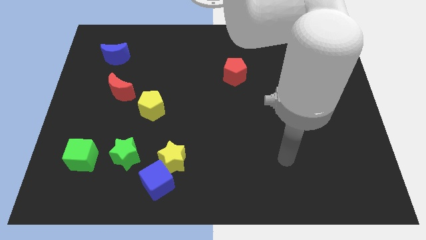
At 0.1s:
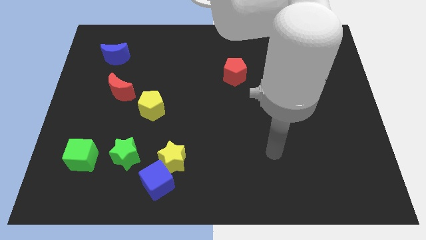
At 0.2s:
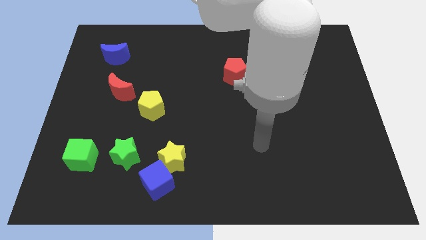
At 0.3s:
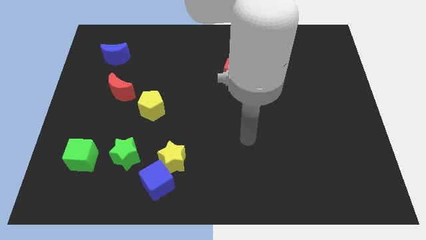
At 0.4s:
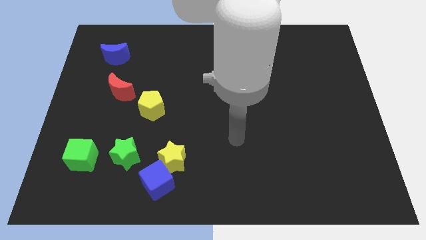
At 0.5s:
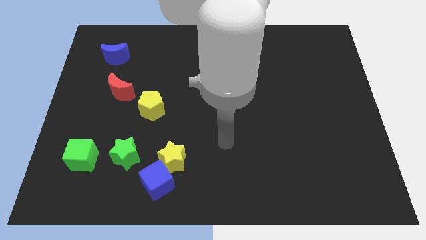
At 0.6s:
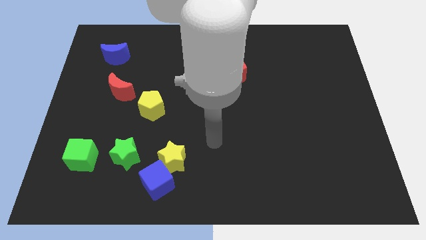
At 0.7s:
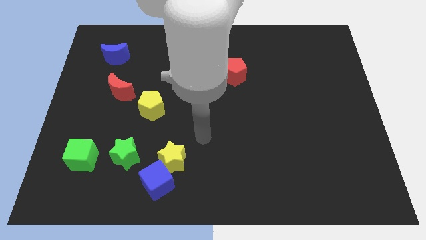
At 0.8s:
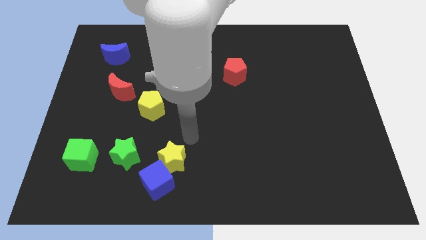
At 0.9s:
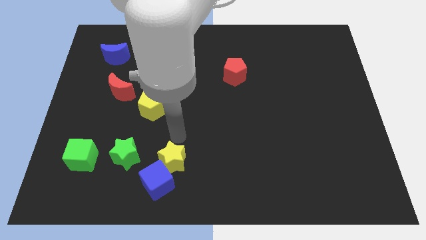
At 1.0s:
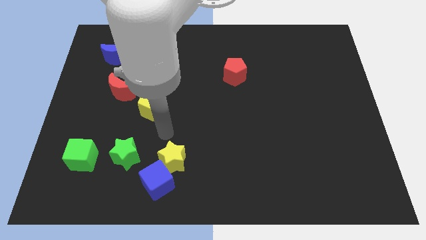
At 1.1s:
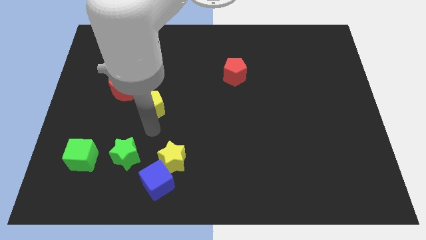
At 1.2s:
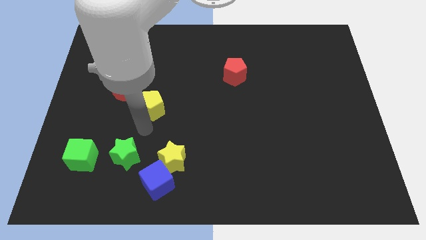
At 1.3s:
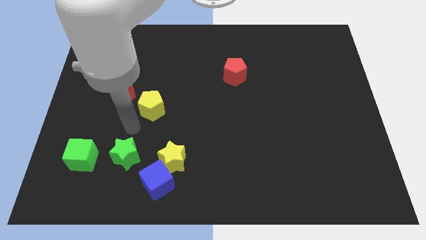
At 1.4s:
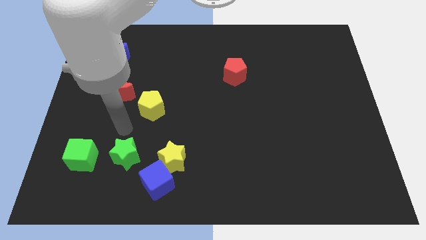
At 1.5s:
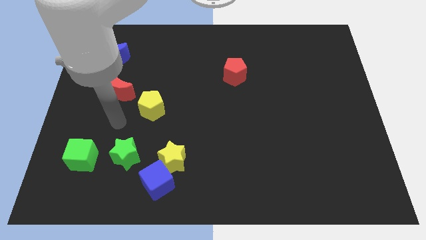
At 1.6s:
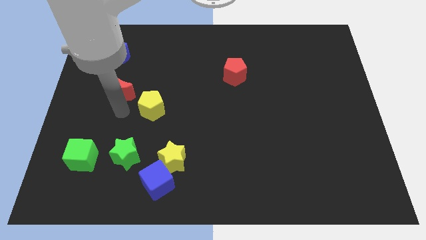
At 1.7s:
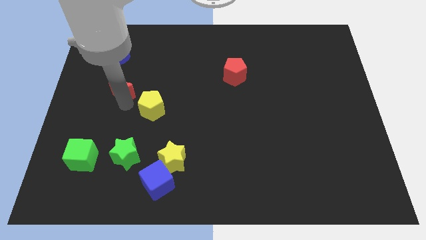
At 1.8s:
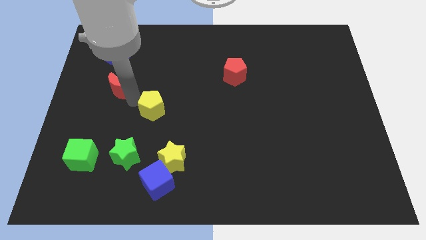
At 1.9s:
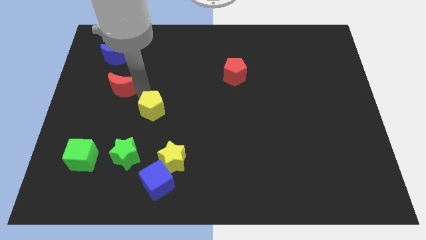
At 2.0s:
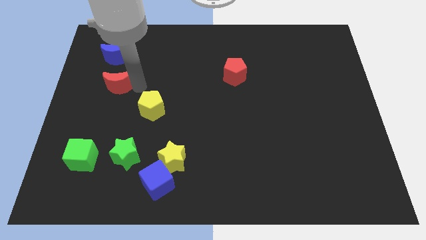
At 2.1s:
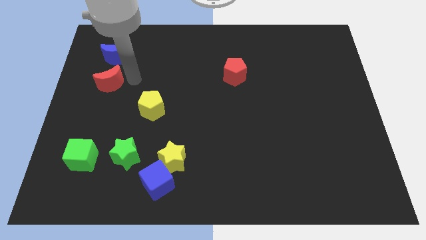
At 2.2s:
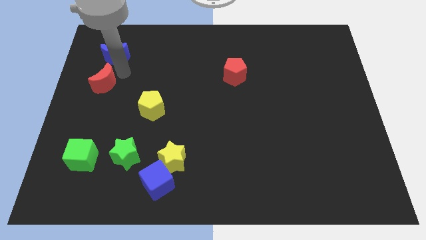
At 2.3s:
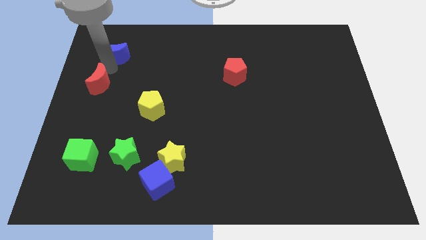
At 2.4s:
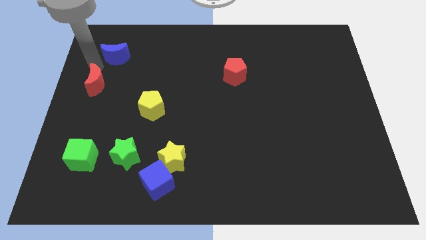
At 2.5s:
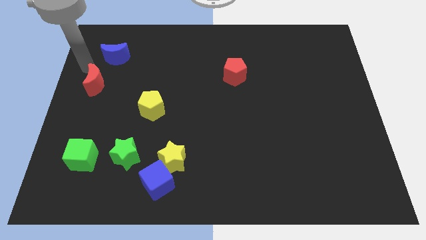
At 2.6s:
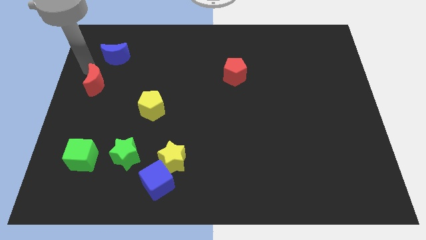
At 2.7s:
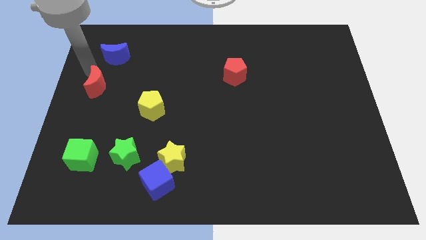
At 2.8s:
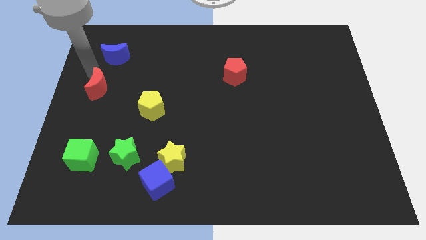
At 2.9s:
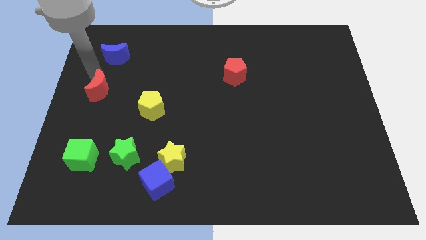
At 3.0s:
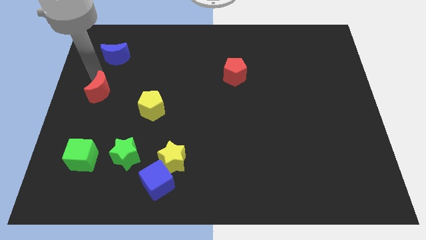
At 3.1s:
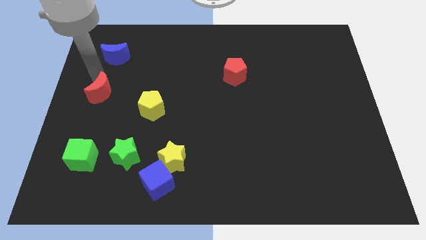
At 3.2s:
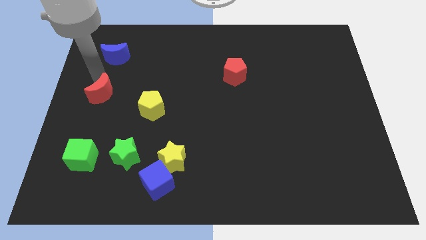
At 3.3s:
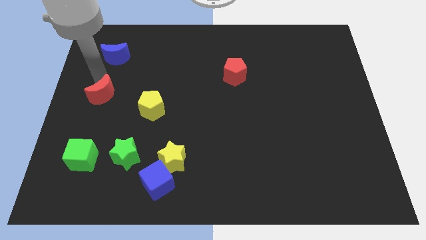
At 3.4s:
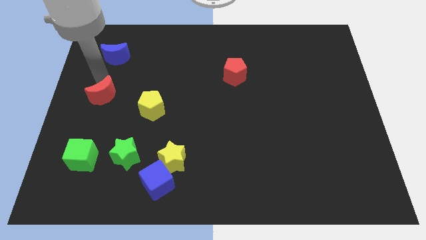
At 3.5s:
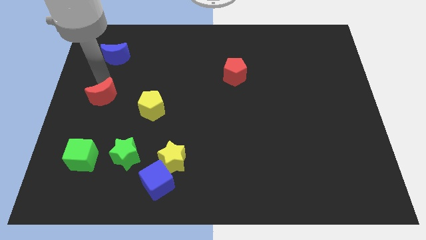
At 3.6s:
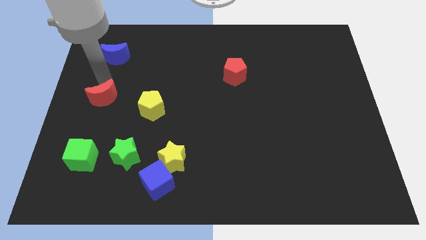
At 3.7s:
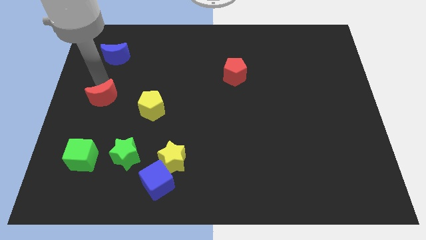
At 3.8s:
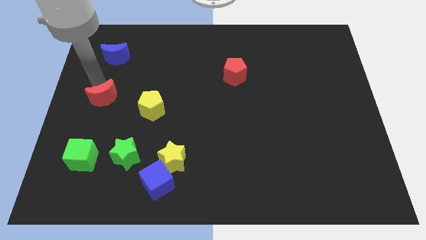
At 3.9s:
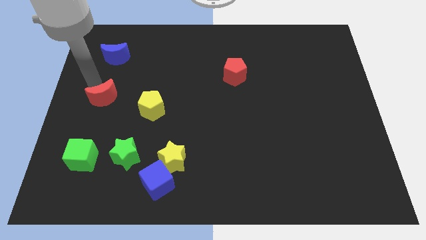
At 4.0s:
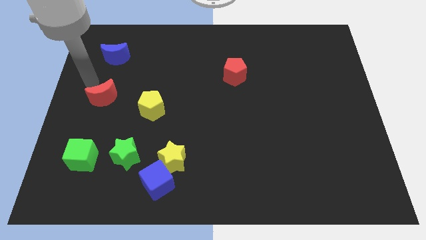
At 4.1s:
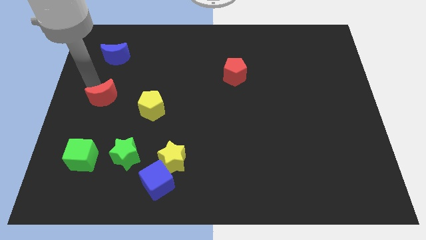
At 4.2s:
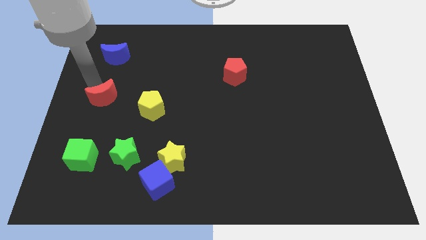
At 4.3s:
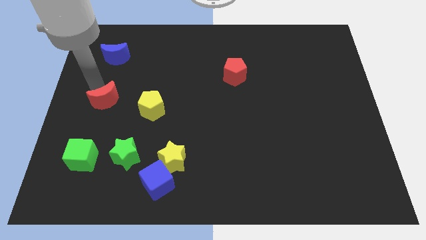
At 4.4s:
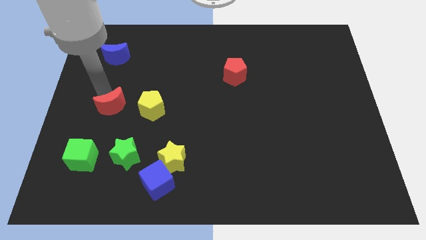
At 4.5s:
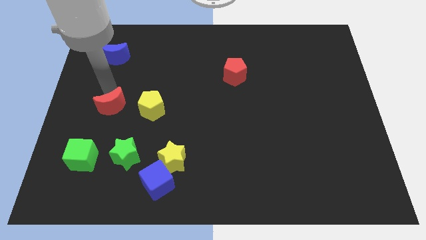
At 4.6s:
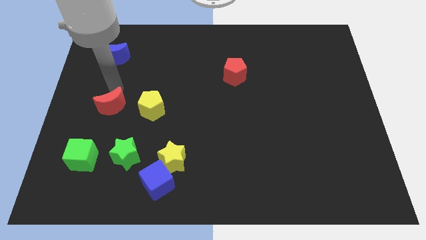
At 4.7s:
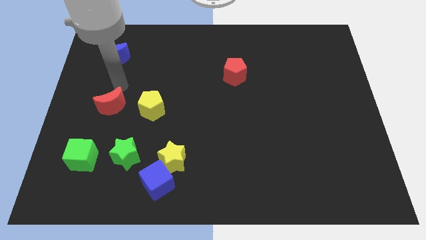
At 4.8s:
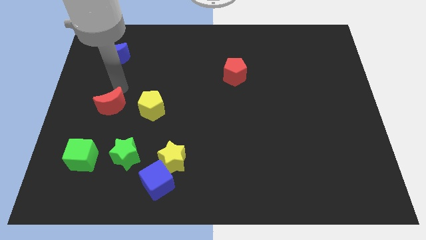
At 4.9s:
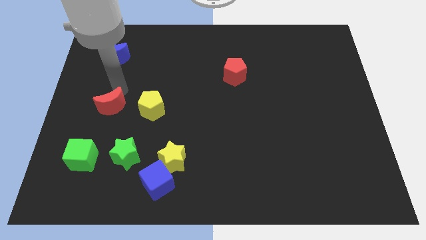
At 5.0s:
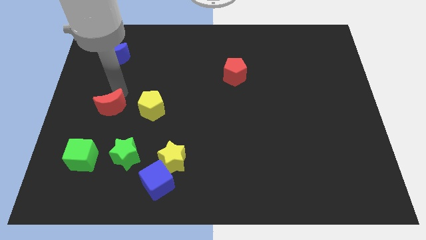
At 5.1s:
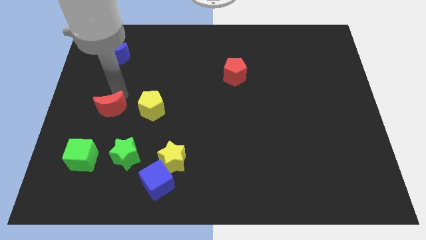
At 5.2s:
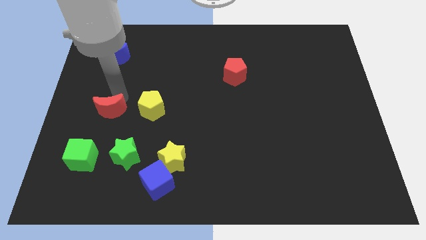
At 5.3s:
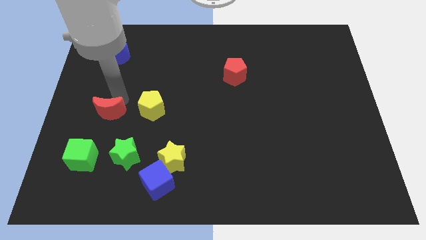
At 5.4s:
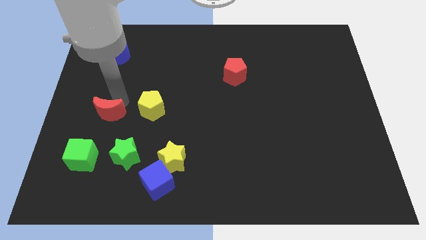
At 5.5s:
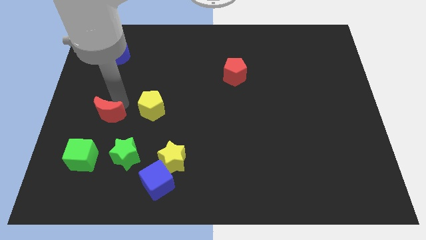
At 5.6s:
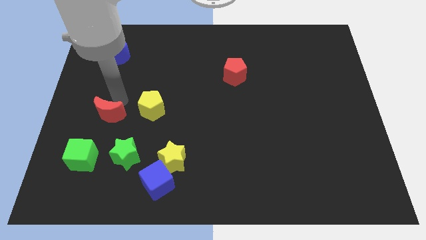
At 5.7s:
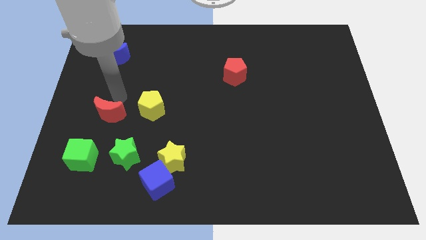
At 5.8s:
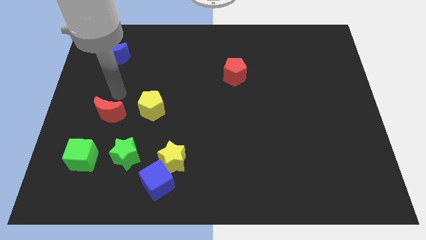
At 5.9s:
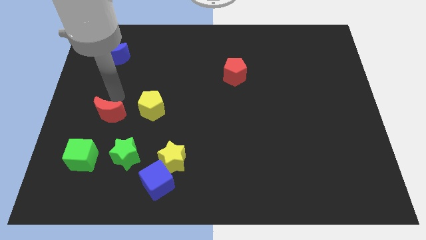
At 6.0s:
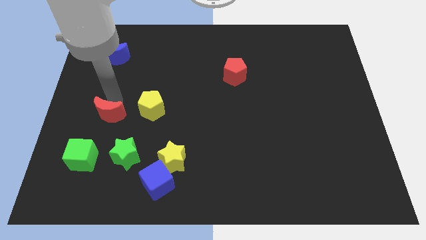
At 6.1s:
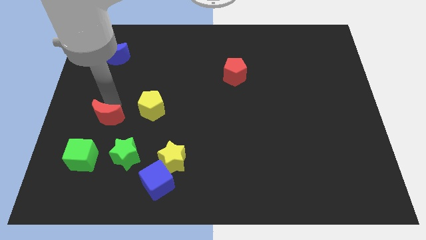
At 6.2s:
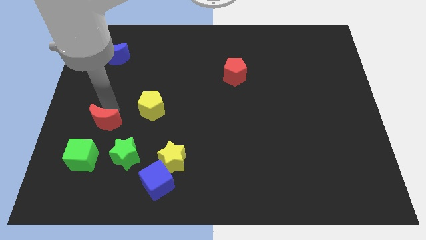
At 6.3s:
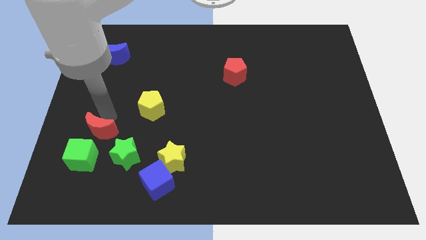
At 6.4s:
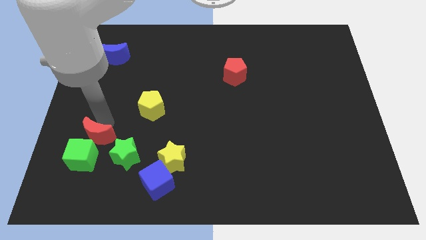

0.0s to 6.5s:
slide the red moon towards the green cube

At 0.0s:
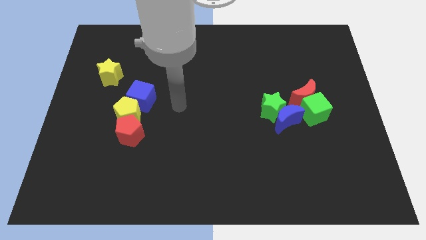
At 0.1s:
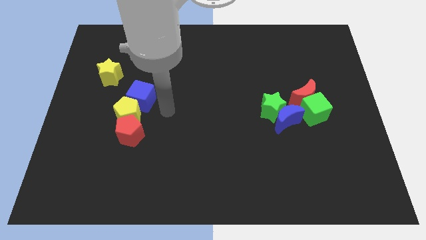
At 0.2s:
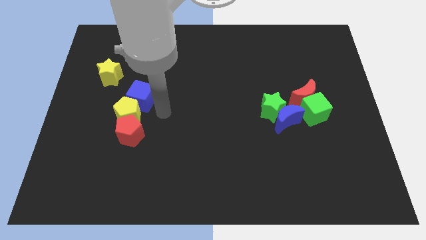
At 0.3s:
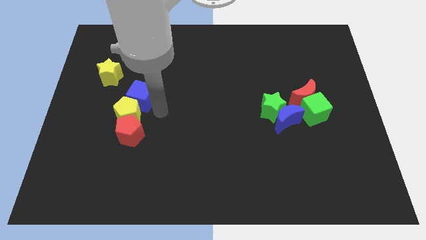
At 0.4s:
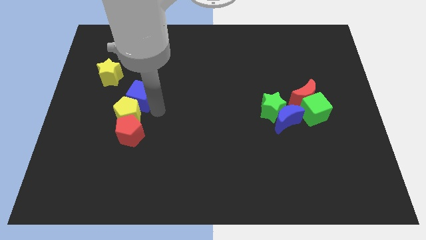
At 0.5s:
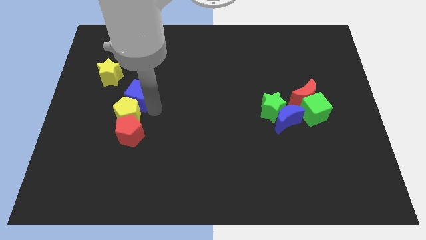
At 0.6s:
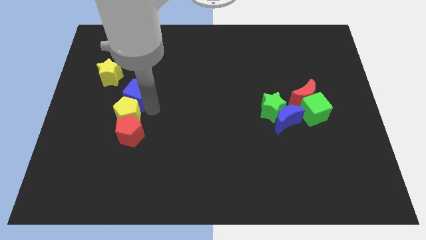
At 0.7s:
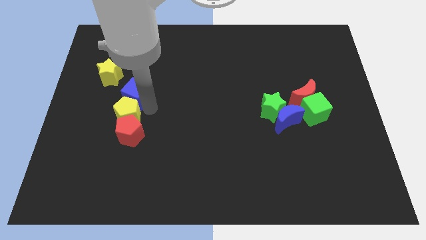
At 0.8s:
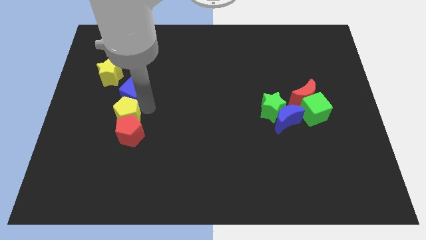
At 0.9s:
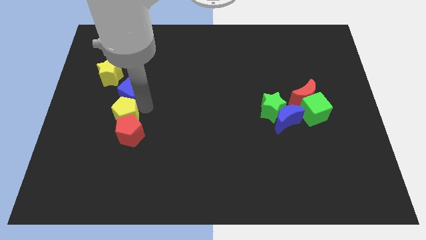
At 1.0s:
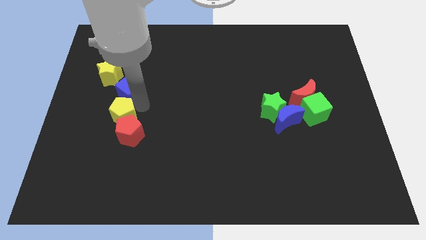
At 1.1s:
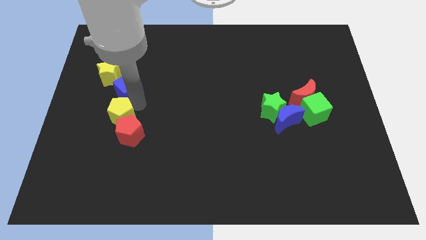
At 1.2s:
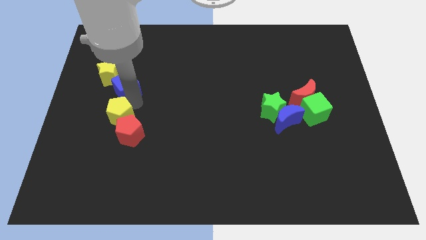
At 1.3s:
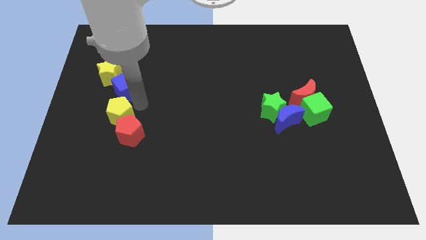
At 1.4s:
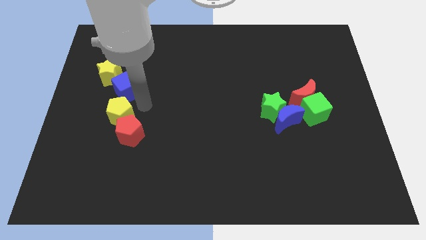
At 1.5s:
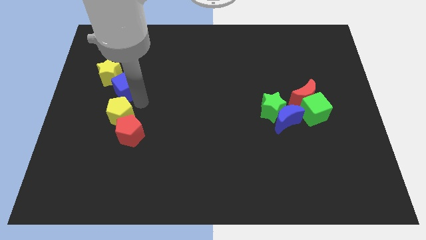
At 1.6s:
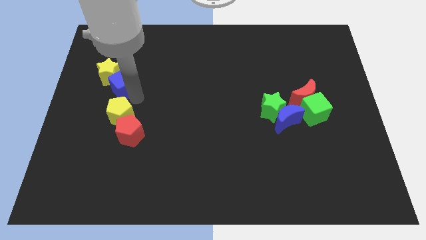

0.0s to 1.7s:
slide the blue cube close to the yellow star
